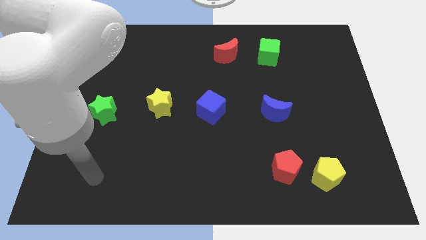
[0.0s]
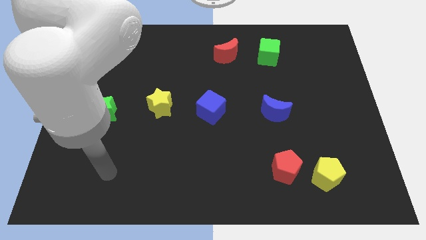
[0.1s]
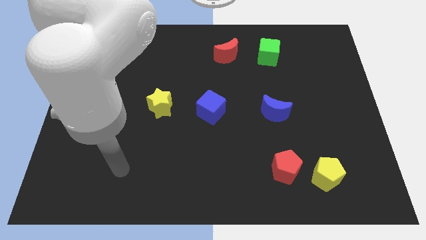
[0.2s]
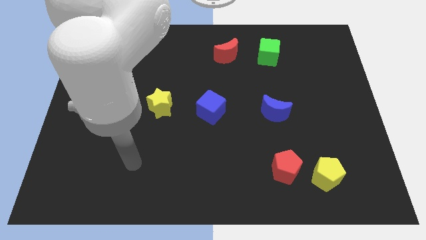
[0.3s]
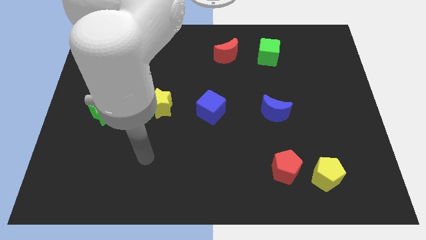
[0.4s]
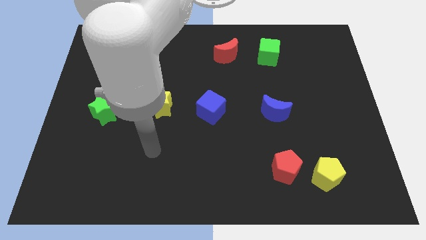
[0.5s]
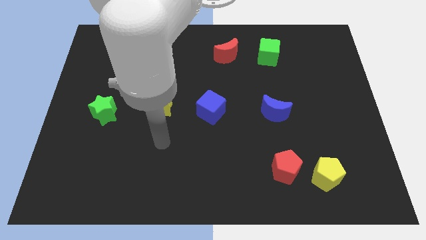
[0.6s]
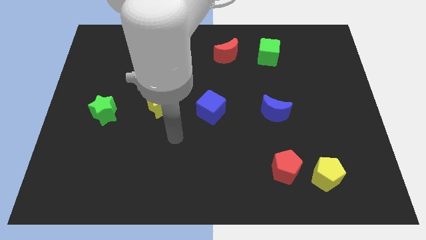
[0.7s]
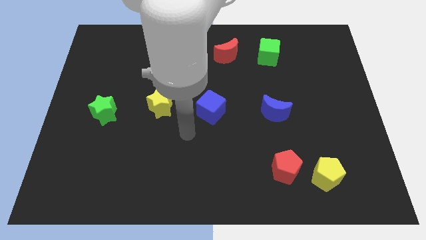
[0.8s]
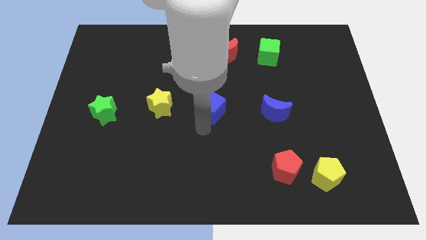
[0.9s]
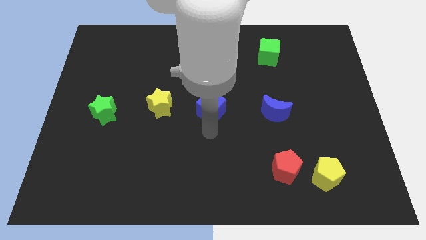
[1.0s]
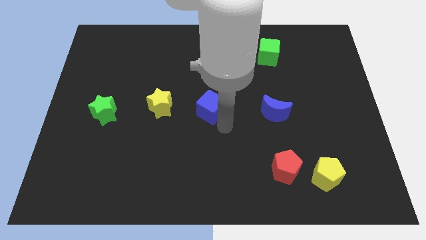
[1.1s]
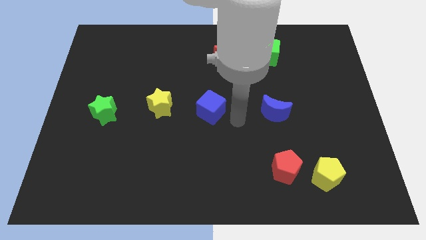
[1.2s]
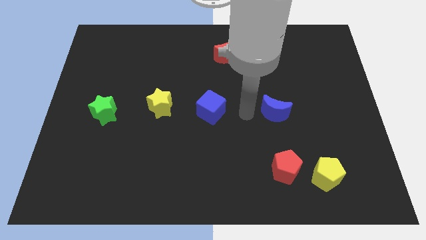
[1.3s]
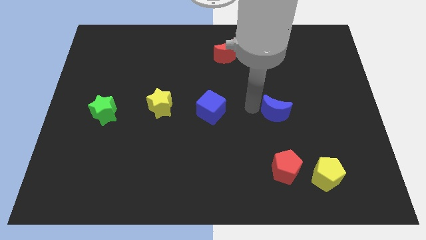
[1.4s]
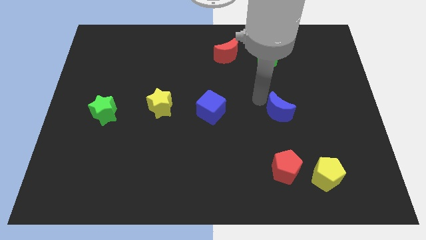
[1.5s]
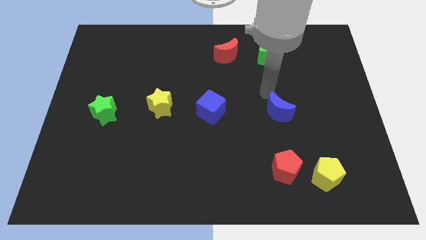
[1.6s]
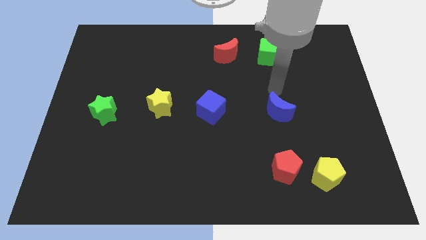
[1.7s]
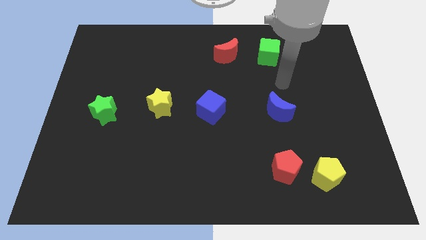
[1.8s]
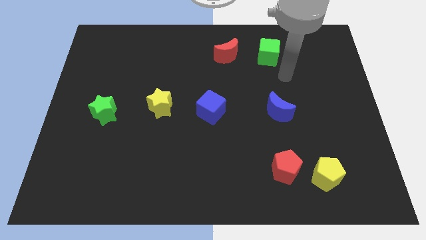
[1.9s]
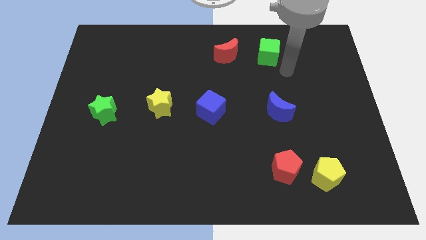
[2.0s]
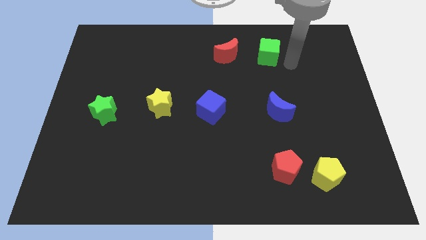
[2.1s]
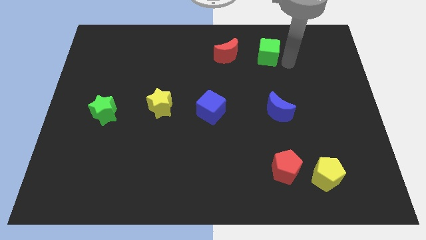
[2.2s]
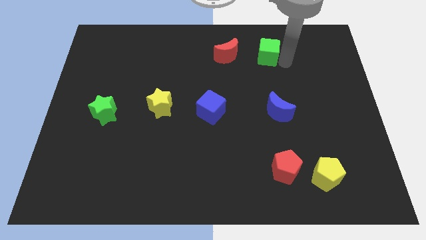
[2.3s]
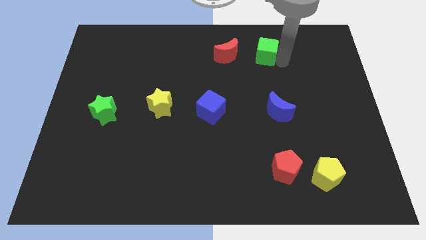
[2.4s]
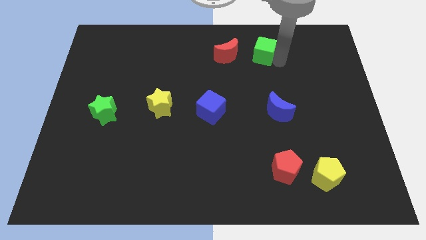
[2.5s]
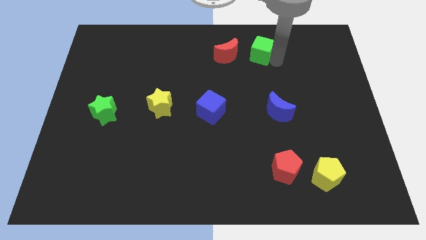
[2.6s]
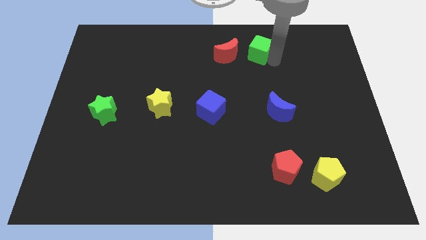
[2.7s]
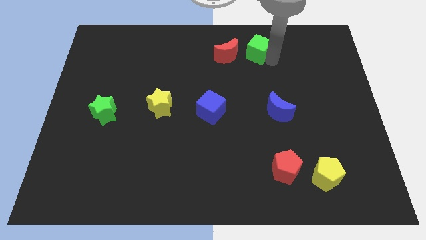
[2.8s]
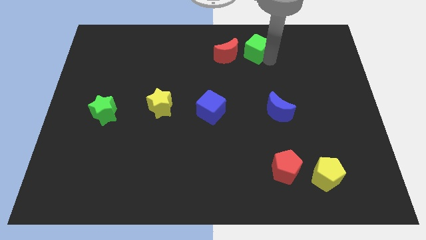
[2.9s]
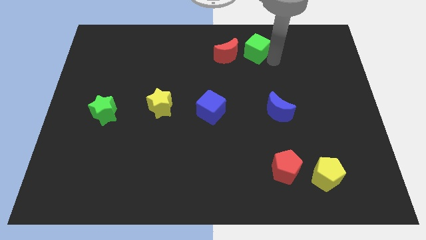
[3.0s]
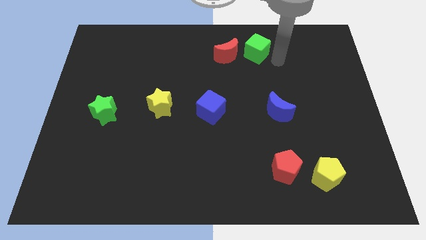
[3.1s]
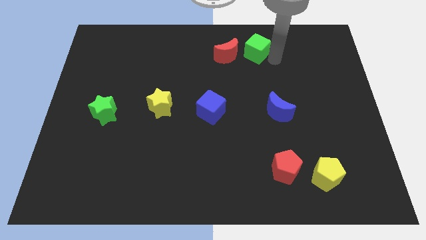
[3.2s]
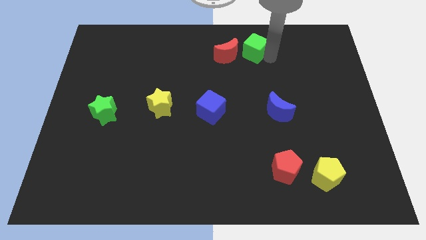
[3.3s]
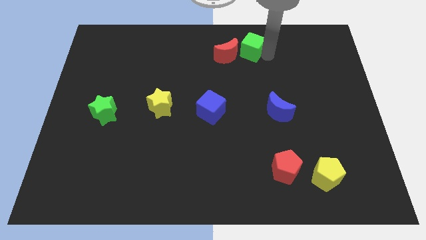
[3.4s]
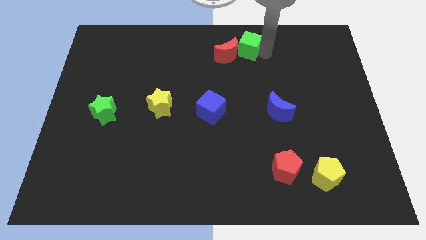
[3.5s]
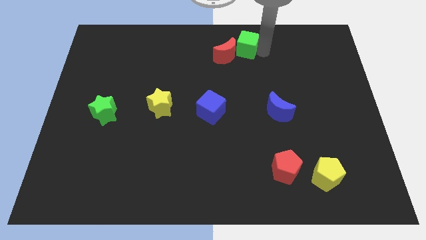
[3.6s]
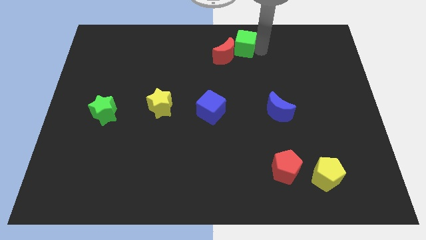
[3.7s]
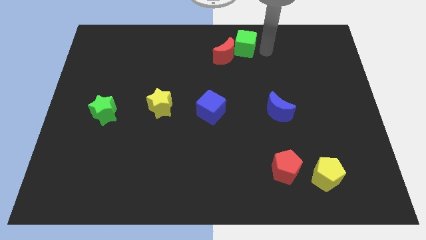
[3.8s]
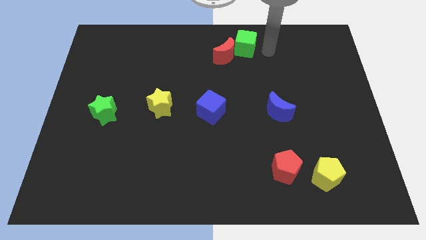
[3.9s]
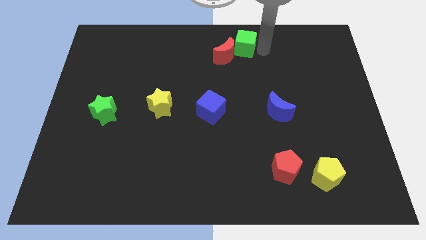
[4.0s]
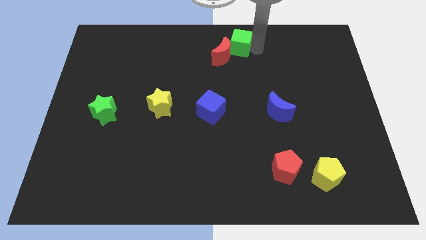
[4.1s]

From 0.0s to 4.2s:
slide the green cube left slightly

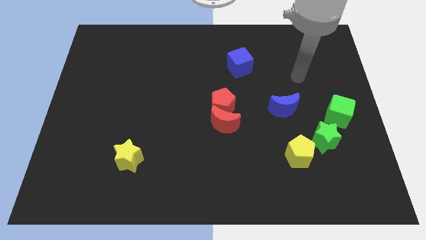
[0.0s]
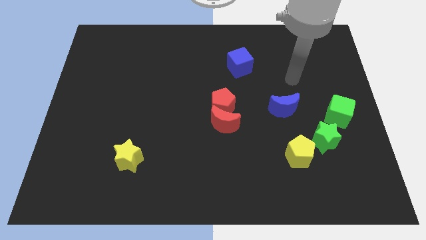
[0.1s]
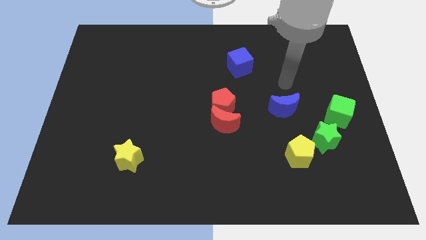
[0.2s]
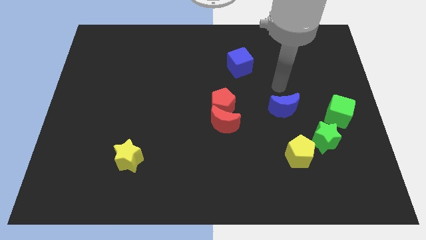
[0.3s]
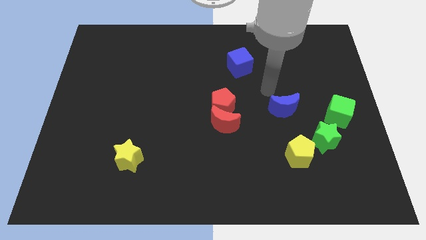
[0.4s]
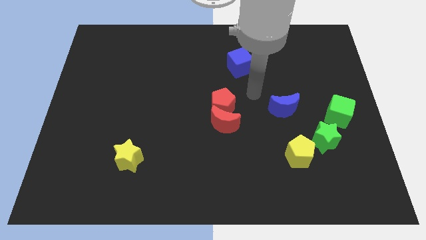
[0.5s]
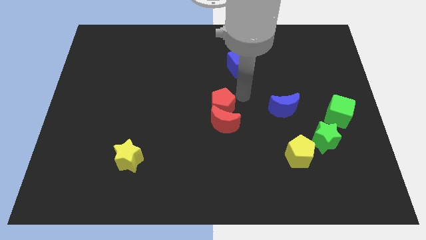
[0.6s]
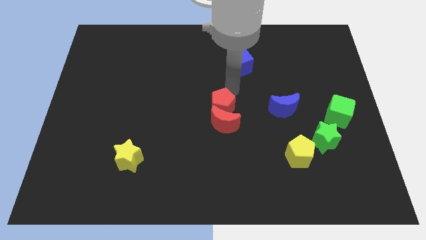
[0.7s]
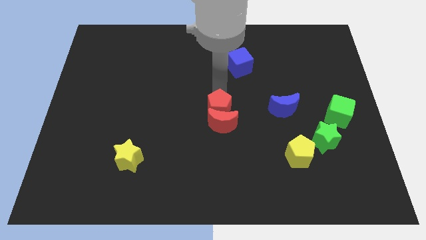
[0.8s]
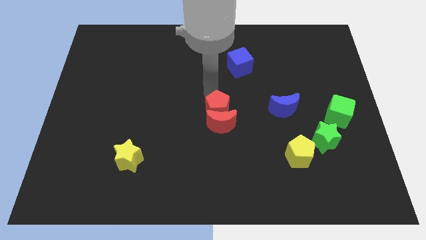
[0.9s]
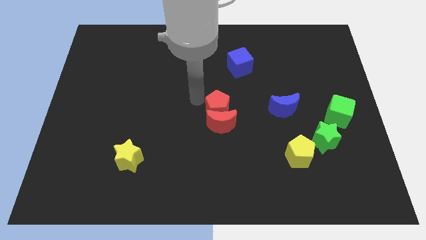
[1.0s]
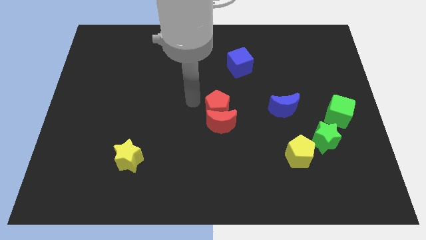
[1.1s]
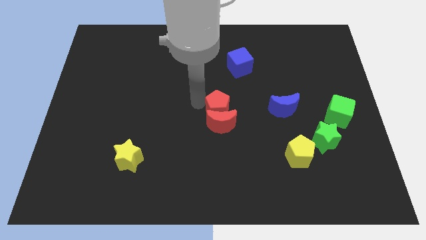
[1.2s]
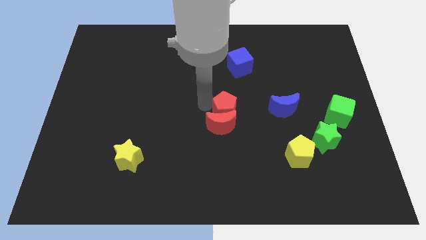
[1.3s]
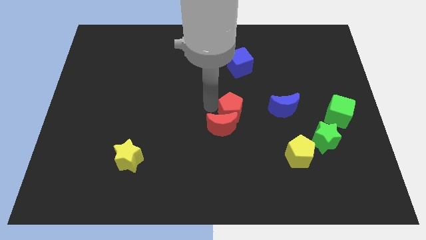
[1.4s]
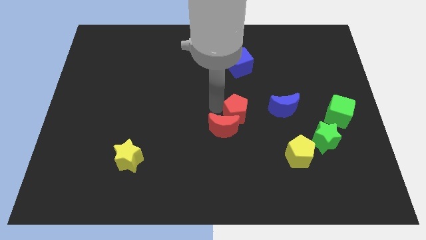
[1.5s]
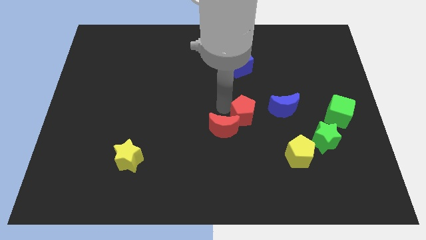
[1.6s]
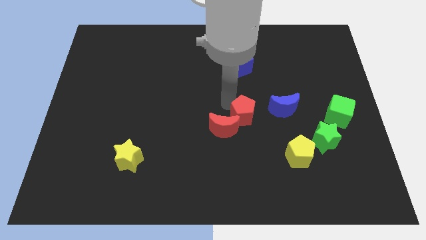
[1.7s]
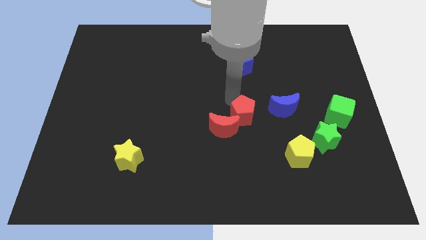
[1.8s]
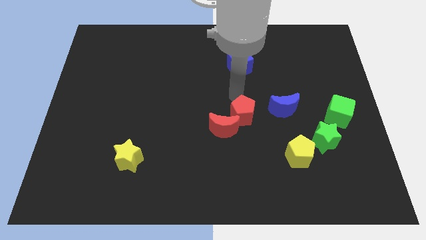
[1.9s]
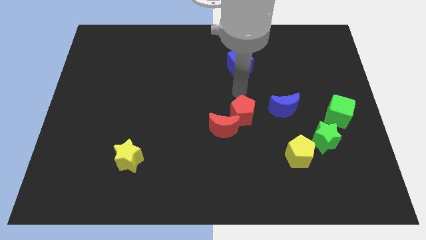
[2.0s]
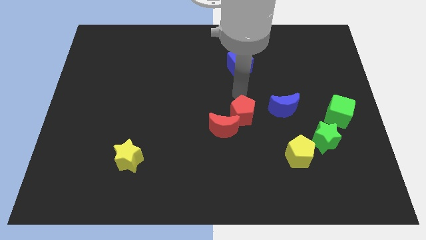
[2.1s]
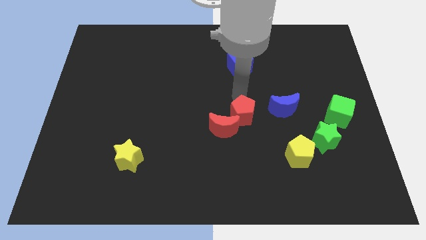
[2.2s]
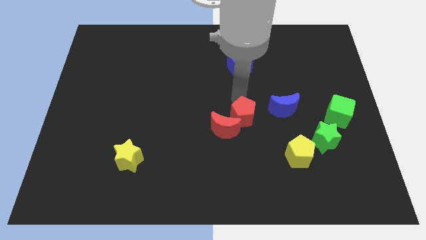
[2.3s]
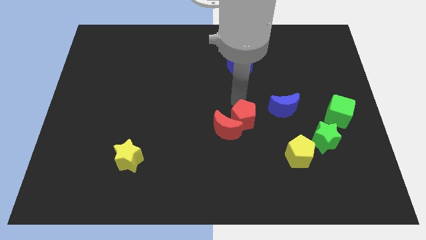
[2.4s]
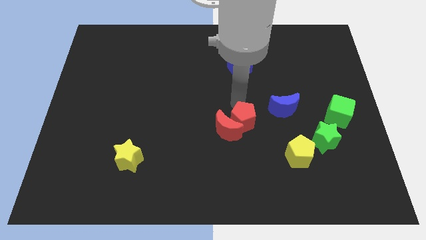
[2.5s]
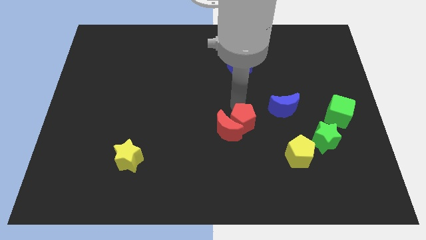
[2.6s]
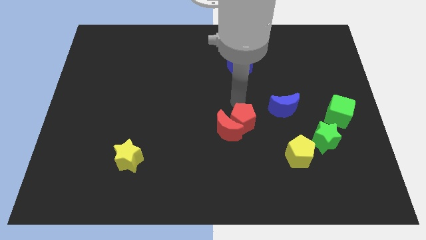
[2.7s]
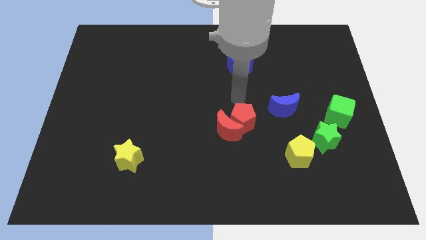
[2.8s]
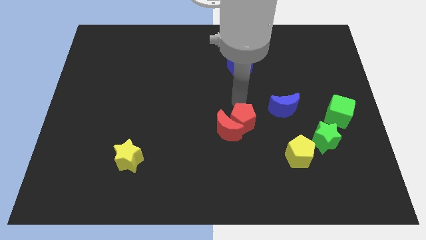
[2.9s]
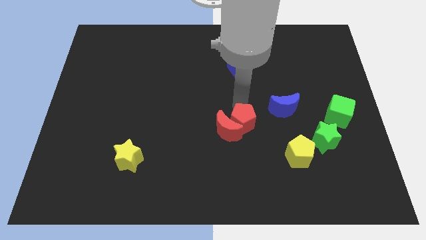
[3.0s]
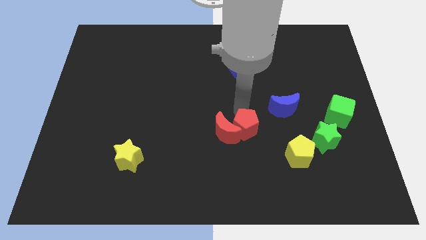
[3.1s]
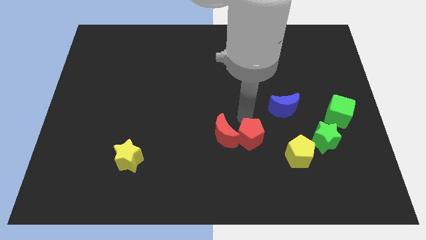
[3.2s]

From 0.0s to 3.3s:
slide the red pentagon down somewhat

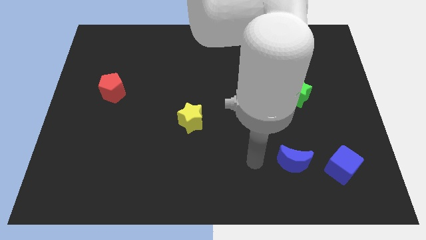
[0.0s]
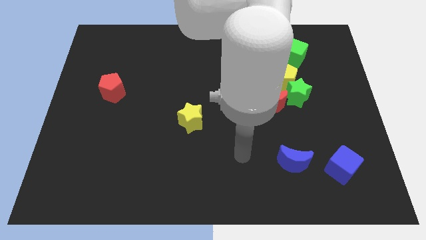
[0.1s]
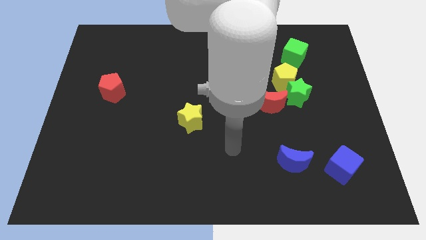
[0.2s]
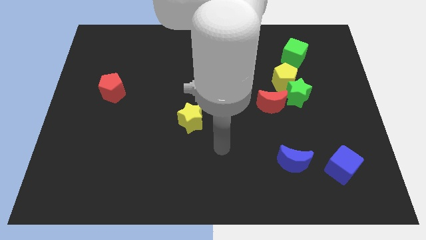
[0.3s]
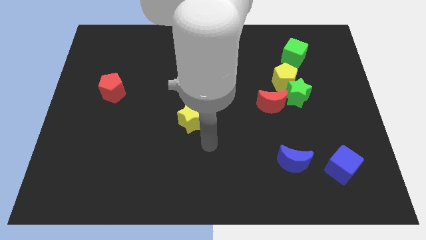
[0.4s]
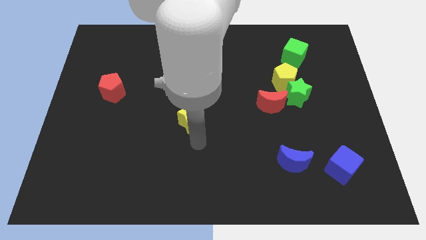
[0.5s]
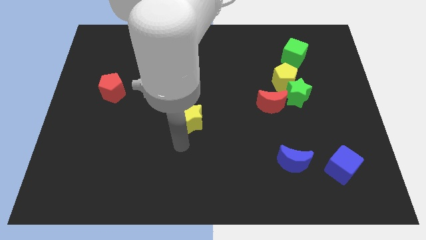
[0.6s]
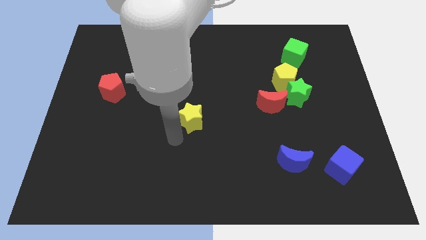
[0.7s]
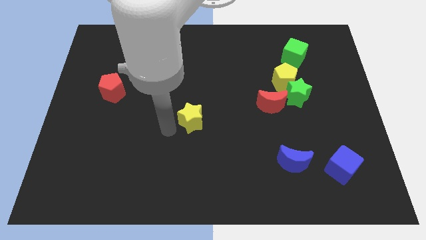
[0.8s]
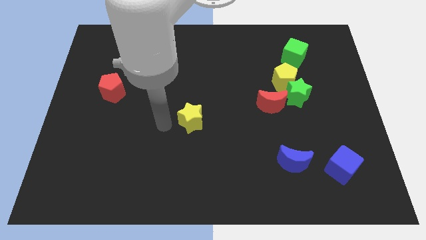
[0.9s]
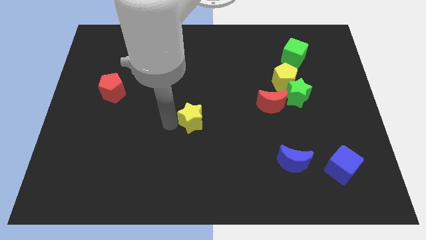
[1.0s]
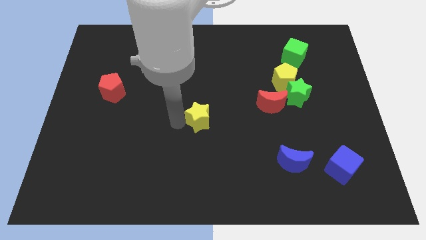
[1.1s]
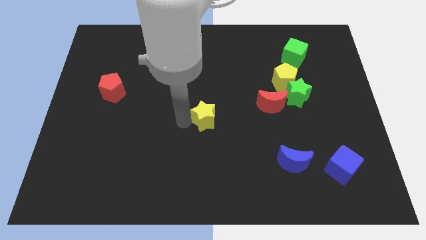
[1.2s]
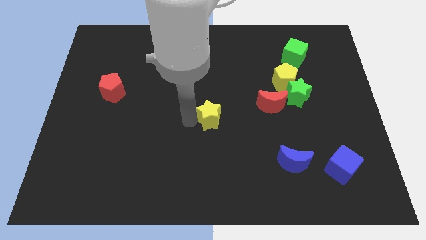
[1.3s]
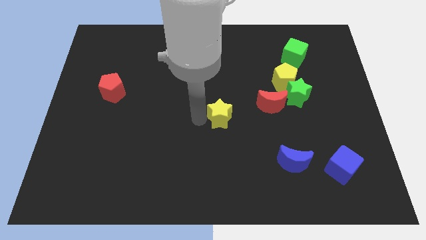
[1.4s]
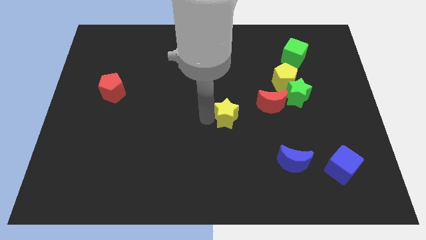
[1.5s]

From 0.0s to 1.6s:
slightly push the yellow star to the right
